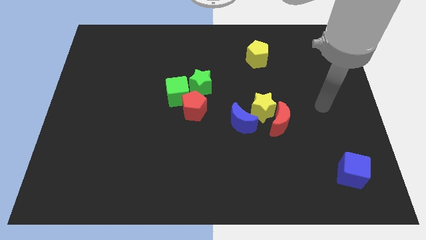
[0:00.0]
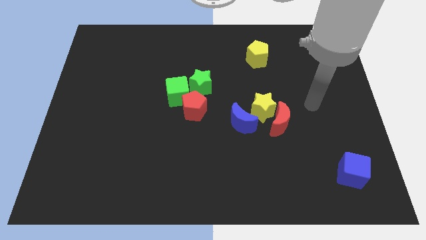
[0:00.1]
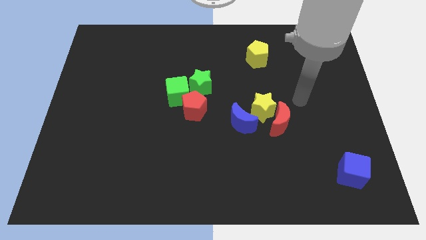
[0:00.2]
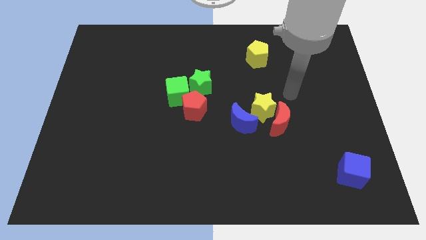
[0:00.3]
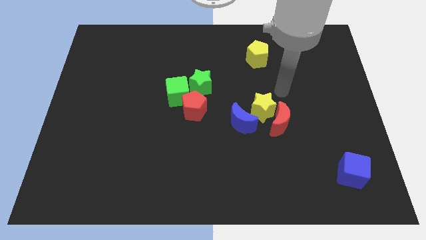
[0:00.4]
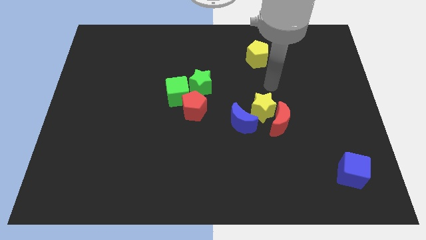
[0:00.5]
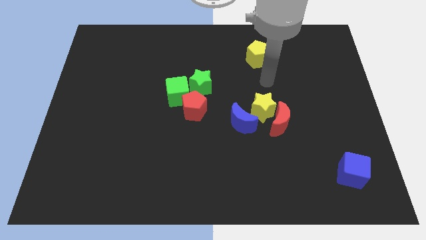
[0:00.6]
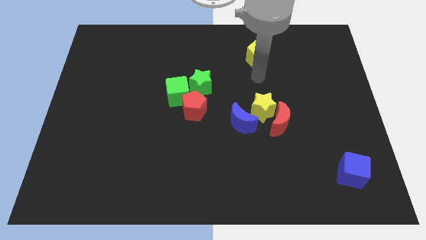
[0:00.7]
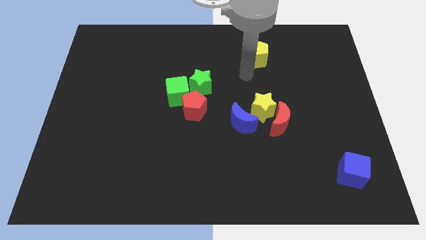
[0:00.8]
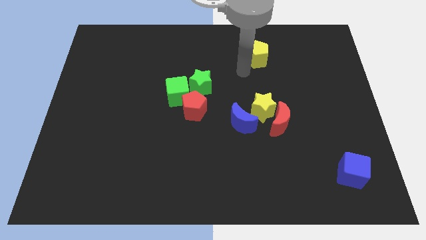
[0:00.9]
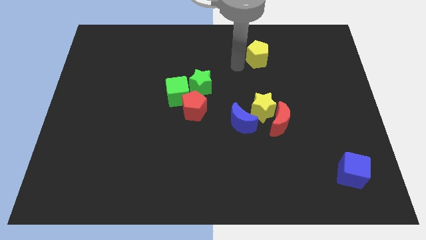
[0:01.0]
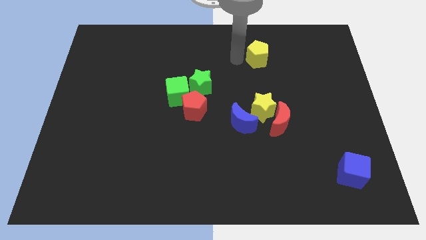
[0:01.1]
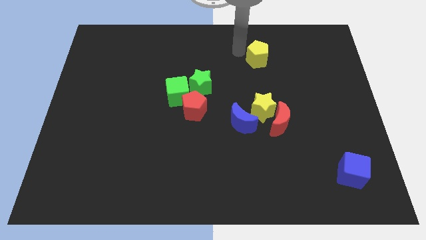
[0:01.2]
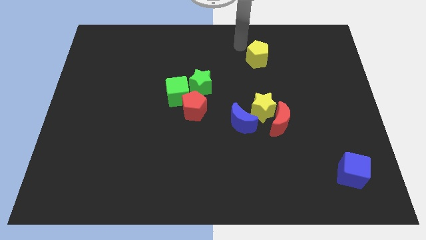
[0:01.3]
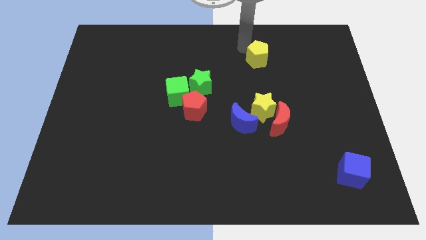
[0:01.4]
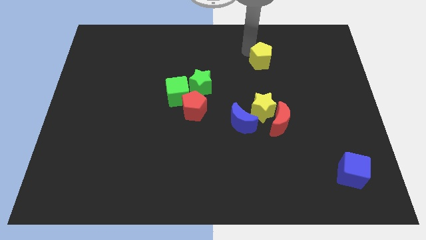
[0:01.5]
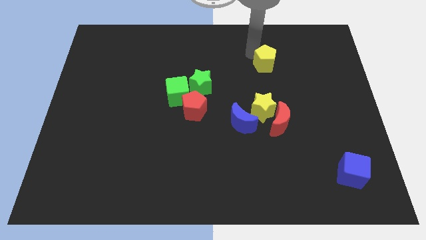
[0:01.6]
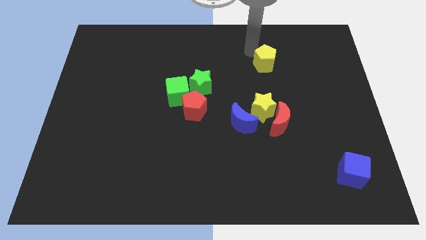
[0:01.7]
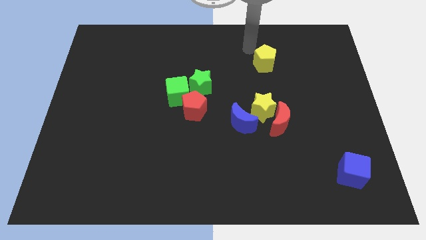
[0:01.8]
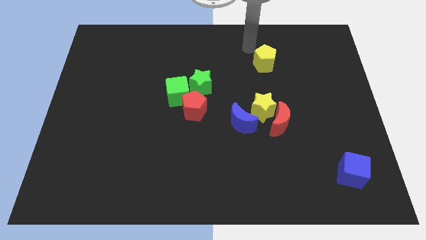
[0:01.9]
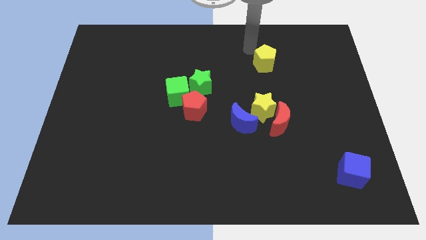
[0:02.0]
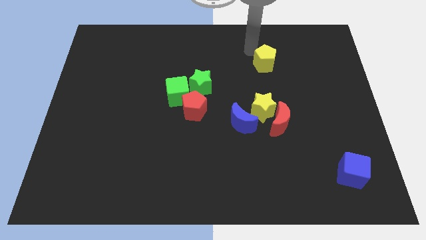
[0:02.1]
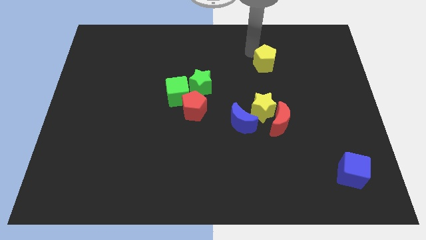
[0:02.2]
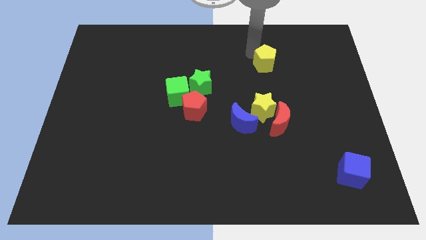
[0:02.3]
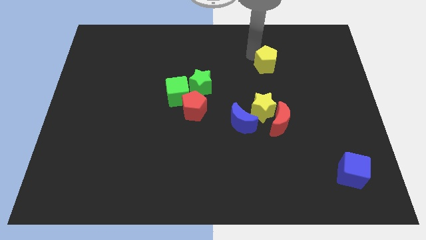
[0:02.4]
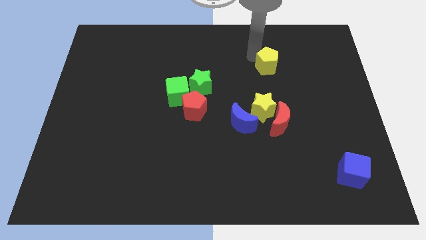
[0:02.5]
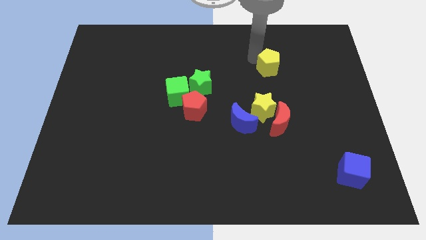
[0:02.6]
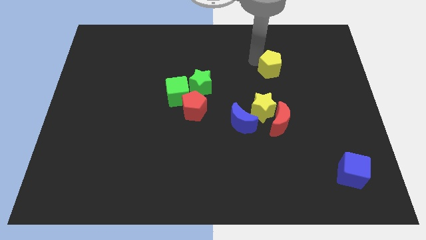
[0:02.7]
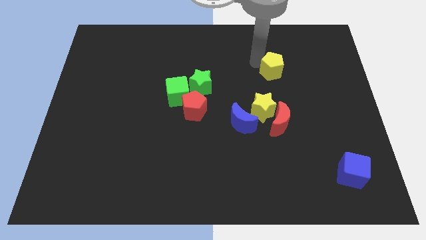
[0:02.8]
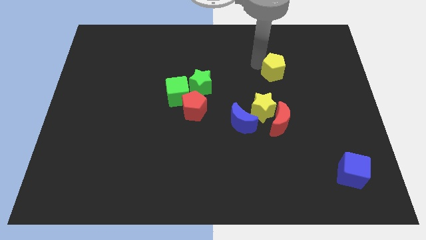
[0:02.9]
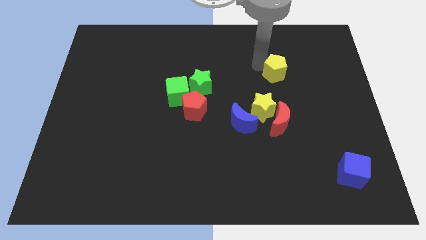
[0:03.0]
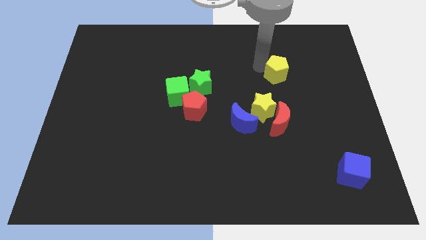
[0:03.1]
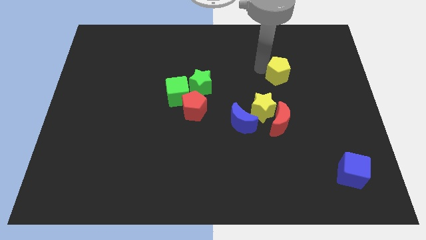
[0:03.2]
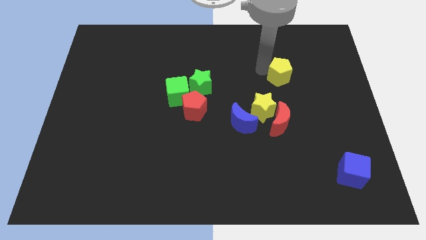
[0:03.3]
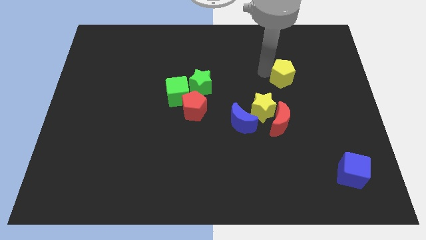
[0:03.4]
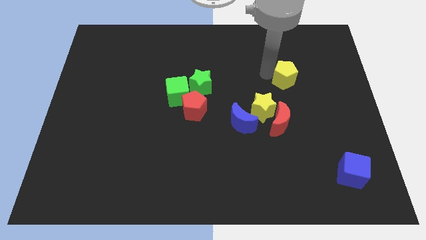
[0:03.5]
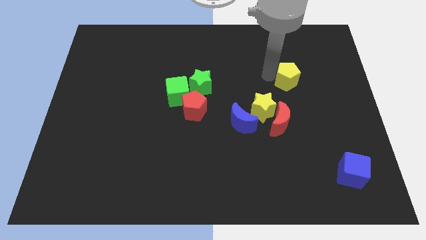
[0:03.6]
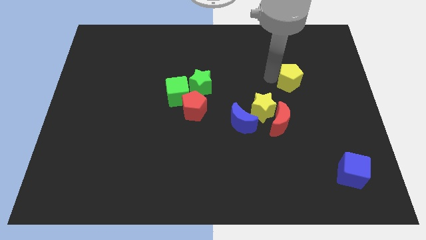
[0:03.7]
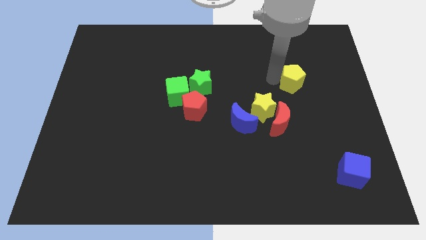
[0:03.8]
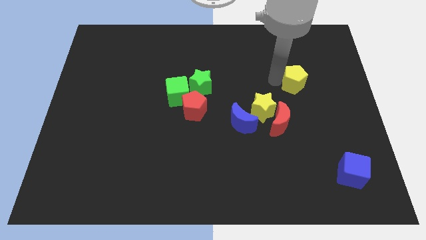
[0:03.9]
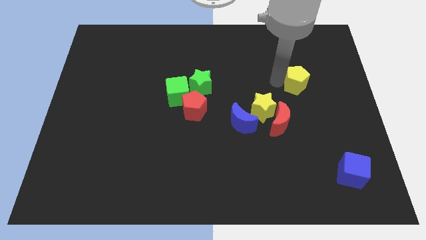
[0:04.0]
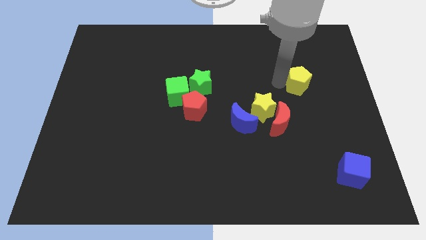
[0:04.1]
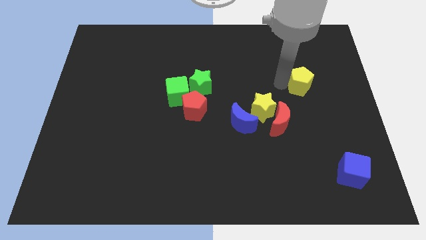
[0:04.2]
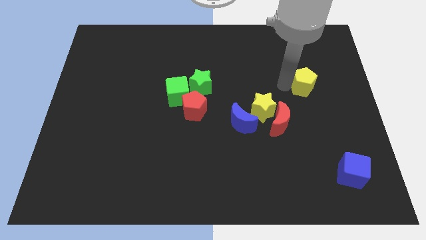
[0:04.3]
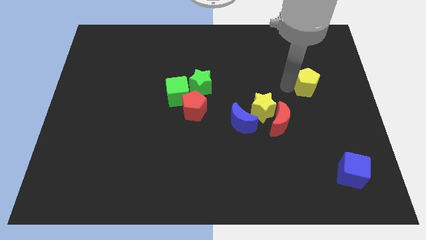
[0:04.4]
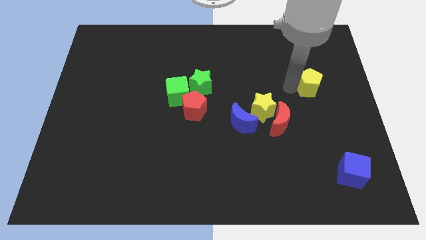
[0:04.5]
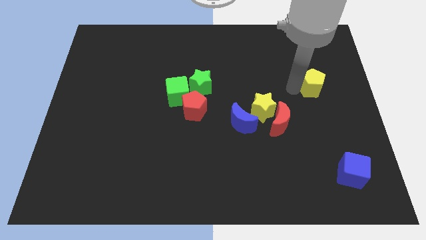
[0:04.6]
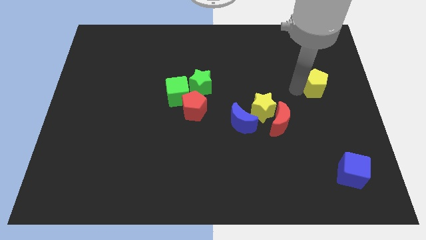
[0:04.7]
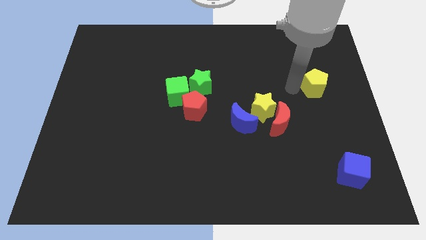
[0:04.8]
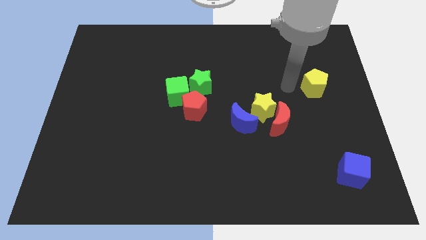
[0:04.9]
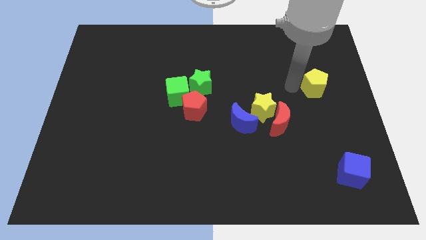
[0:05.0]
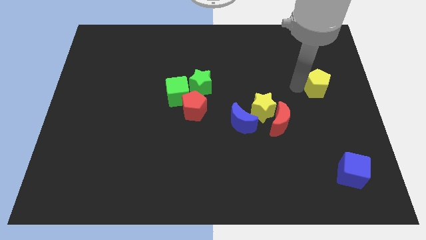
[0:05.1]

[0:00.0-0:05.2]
push the yellow pentagon to the right side of the board
